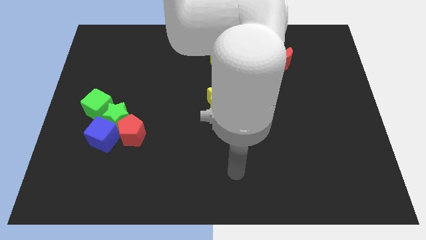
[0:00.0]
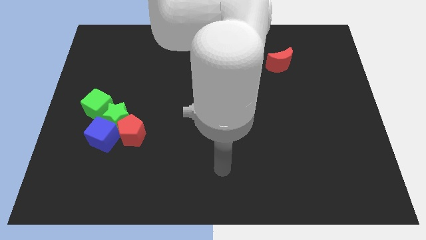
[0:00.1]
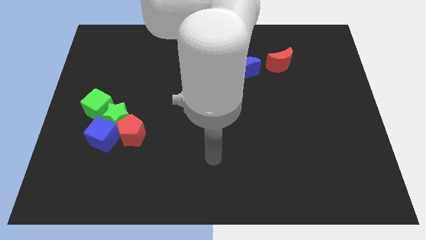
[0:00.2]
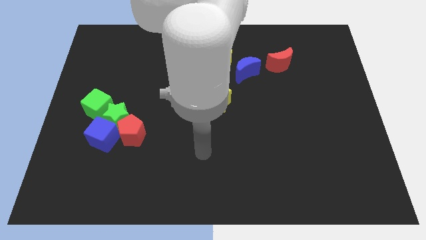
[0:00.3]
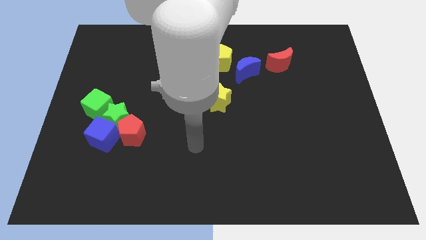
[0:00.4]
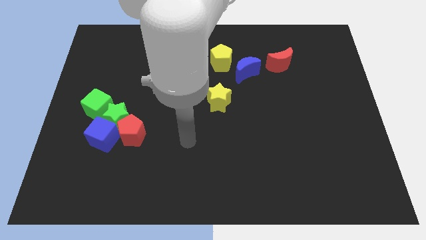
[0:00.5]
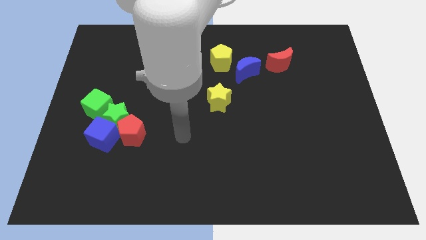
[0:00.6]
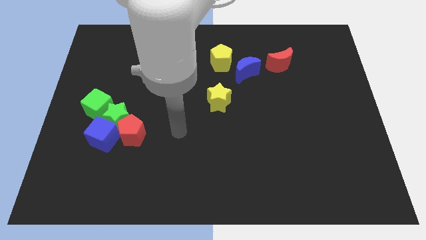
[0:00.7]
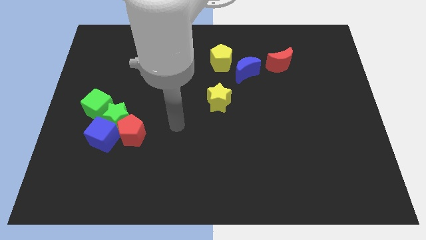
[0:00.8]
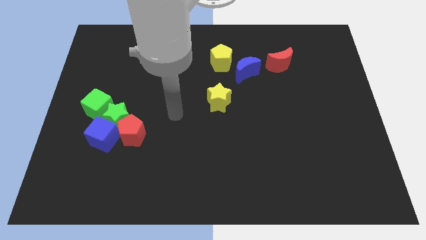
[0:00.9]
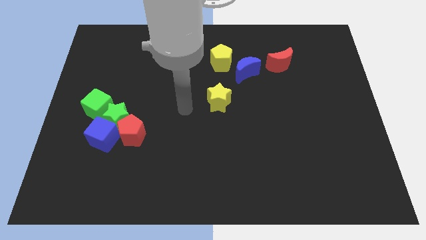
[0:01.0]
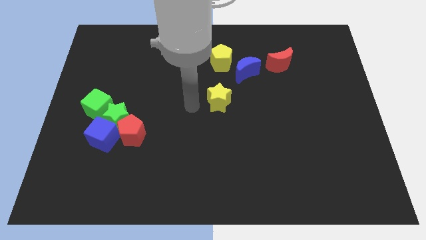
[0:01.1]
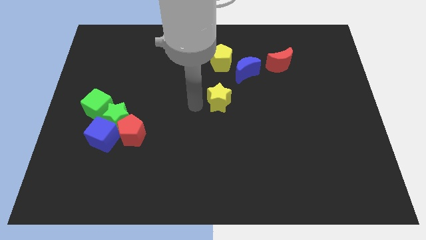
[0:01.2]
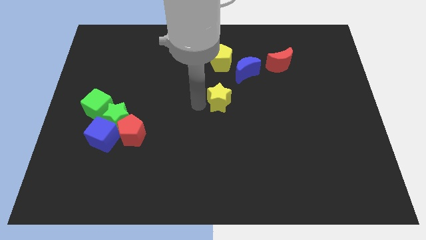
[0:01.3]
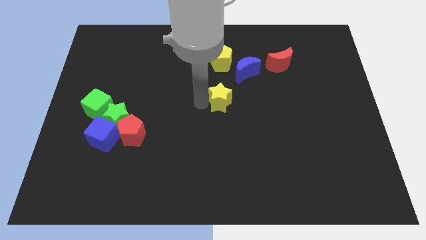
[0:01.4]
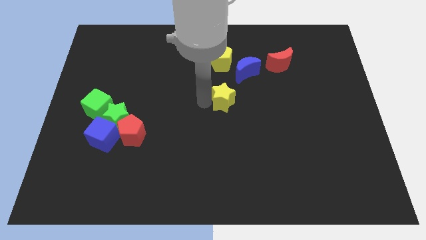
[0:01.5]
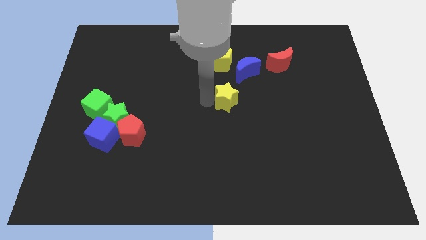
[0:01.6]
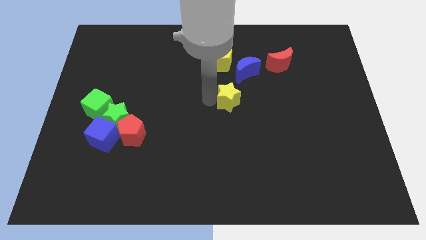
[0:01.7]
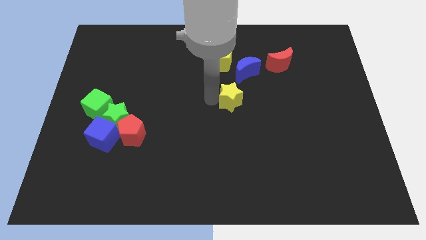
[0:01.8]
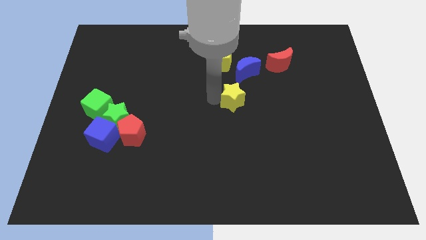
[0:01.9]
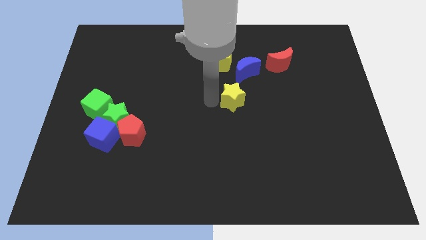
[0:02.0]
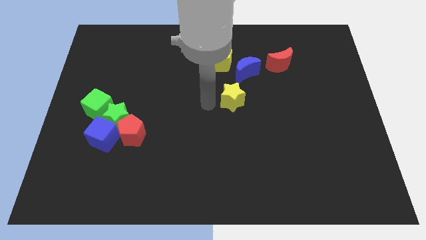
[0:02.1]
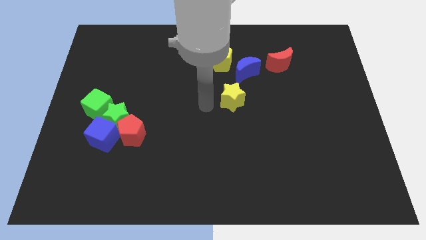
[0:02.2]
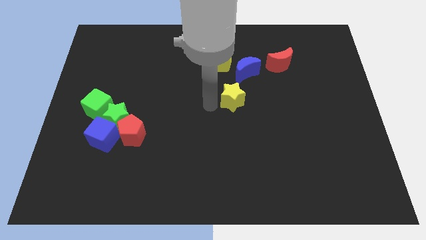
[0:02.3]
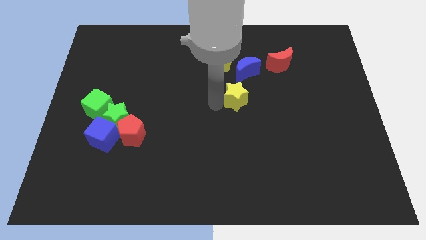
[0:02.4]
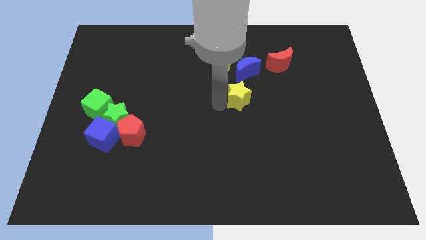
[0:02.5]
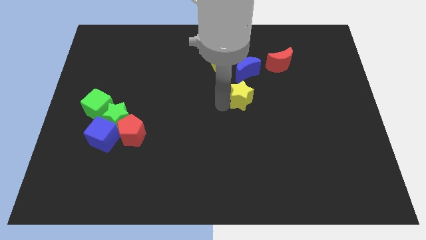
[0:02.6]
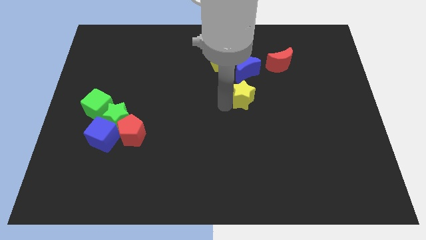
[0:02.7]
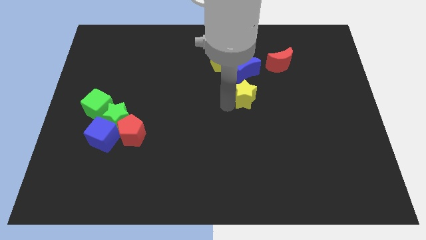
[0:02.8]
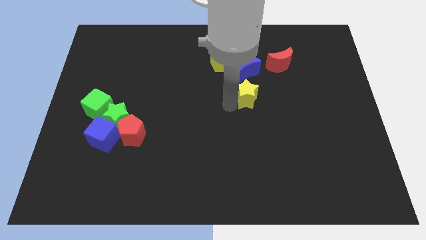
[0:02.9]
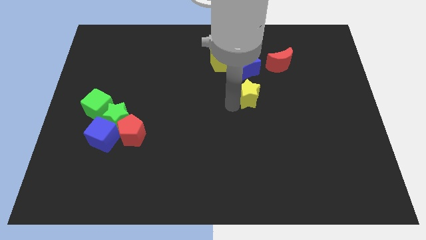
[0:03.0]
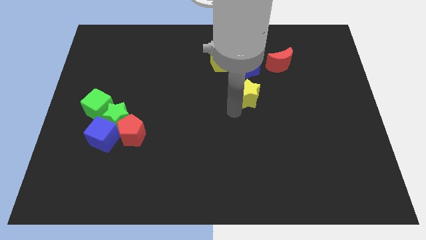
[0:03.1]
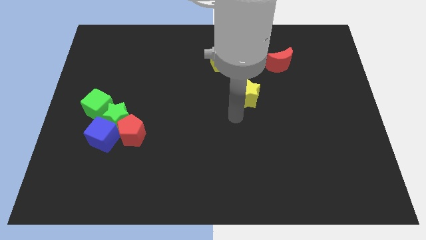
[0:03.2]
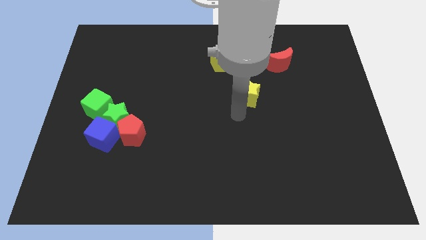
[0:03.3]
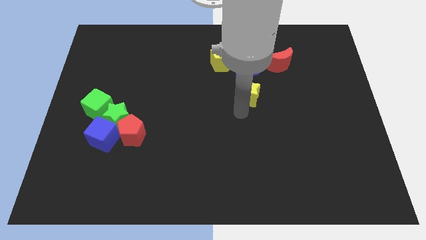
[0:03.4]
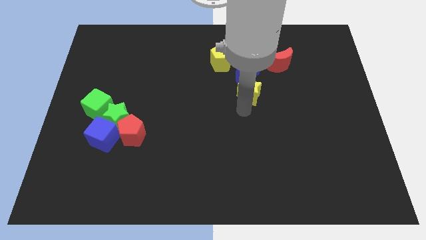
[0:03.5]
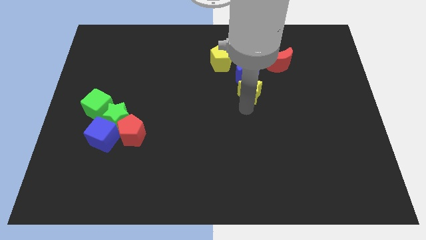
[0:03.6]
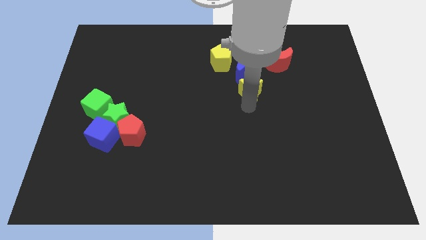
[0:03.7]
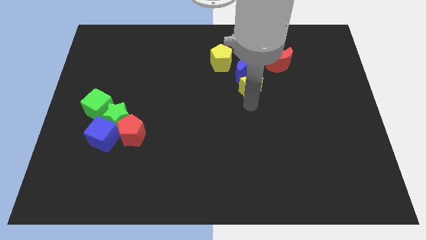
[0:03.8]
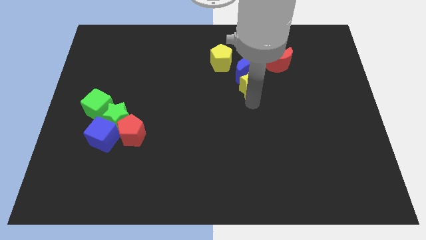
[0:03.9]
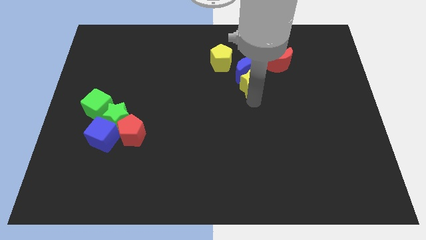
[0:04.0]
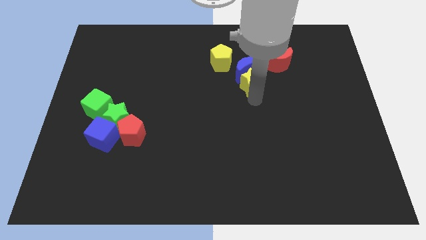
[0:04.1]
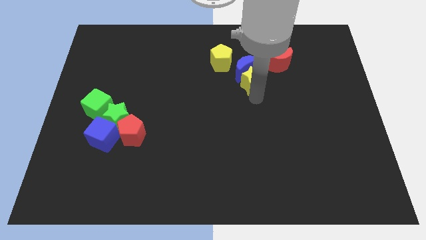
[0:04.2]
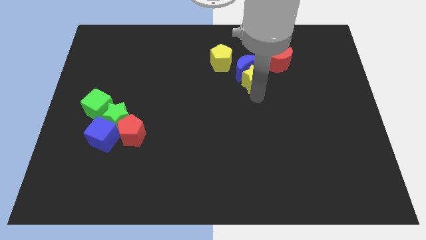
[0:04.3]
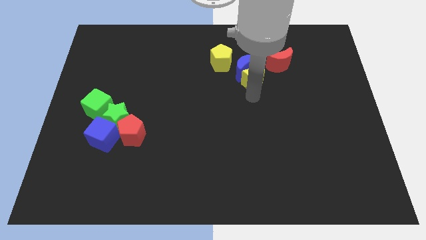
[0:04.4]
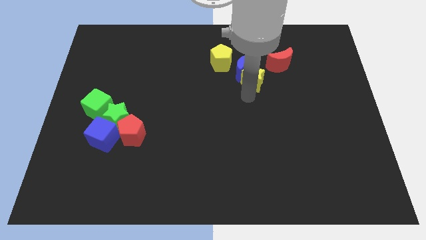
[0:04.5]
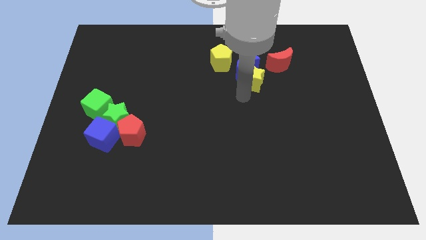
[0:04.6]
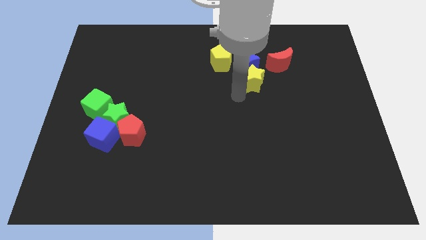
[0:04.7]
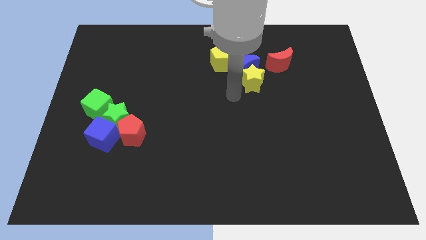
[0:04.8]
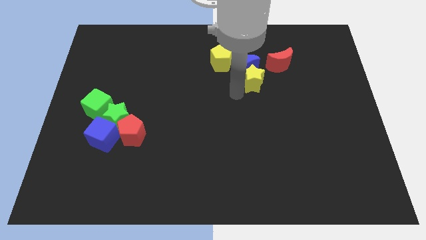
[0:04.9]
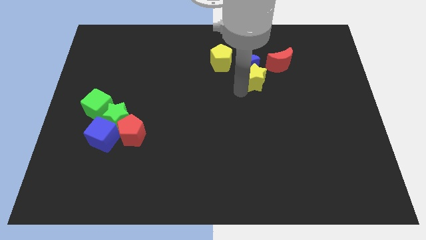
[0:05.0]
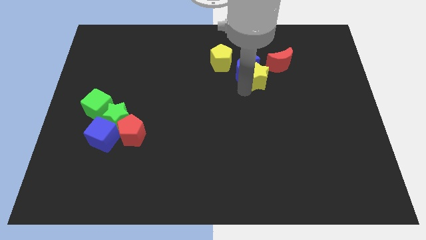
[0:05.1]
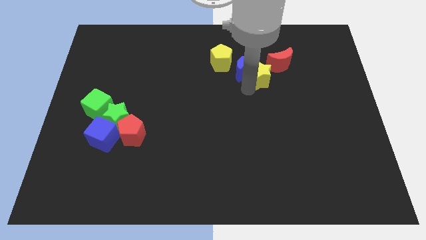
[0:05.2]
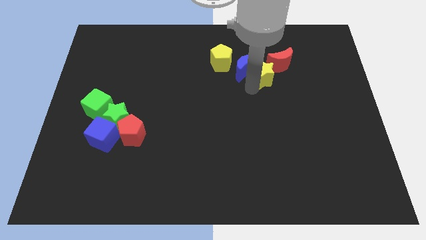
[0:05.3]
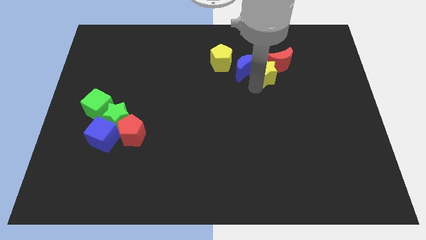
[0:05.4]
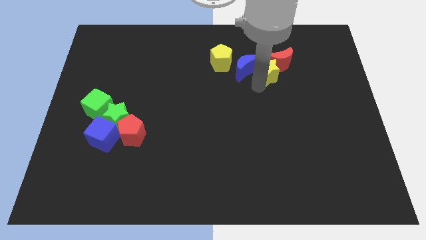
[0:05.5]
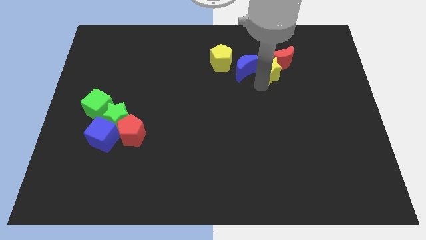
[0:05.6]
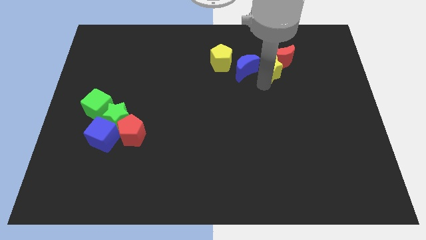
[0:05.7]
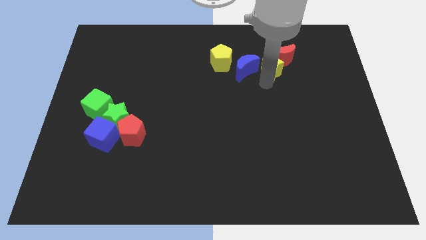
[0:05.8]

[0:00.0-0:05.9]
push the yellow star to the top right side of the blue moon
